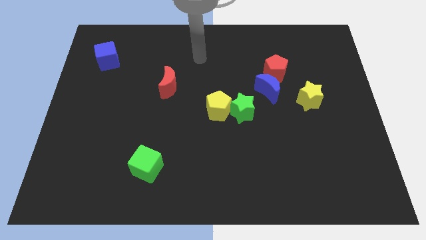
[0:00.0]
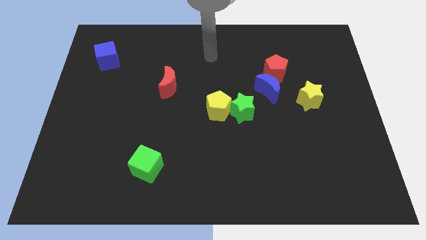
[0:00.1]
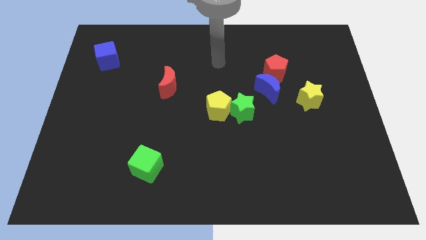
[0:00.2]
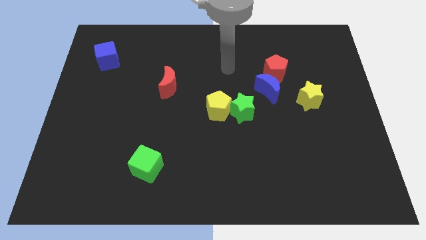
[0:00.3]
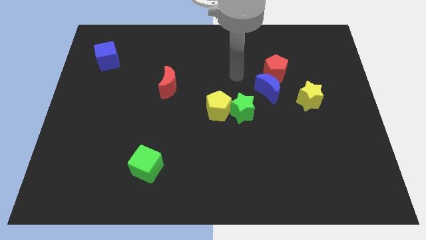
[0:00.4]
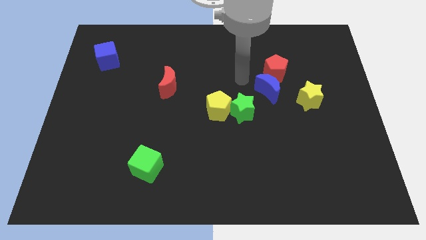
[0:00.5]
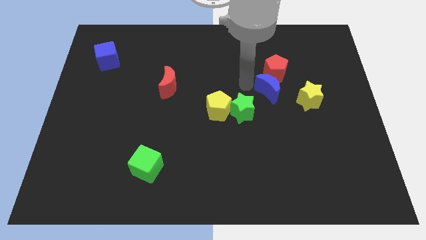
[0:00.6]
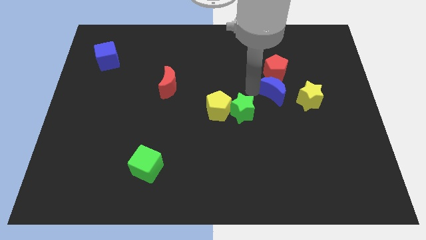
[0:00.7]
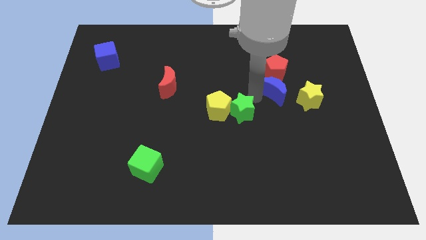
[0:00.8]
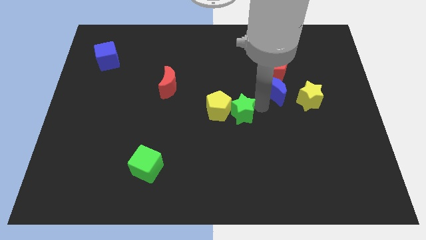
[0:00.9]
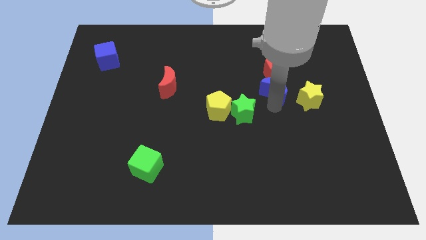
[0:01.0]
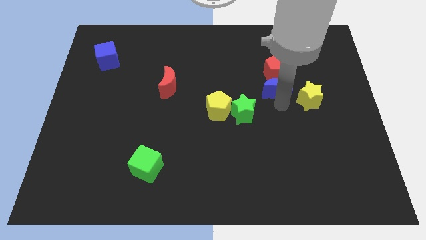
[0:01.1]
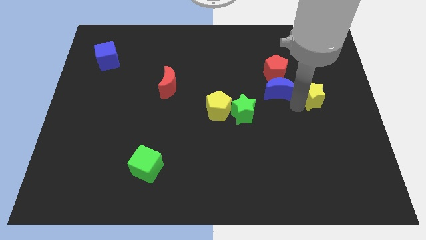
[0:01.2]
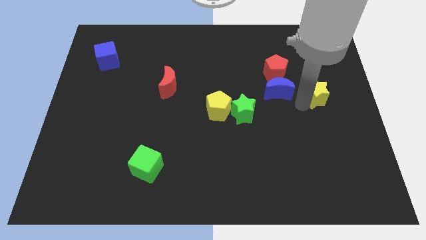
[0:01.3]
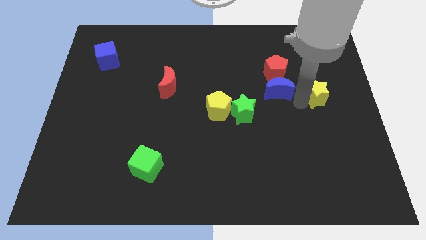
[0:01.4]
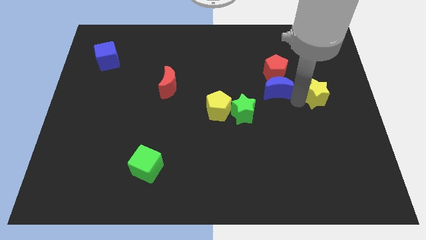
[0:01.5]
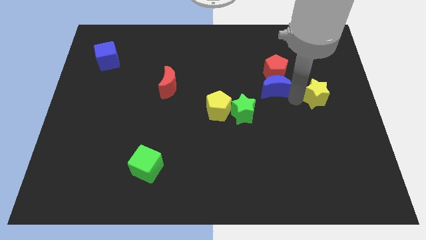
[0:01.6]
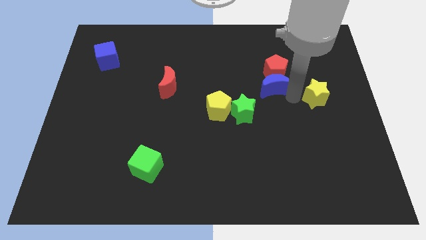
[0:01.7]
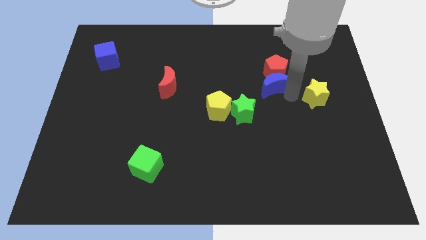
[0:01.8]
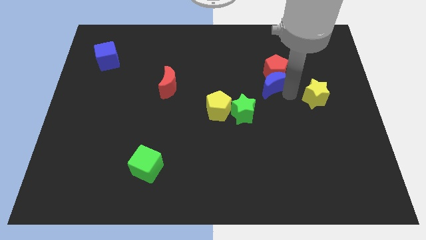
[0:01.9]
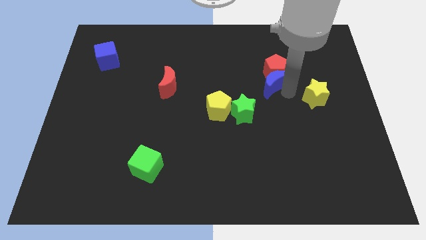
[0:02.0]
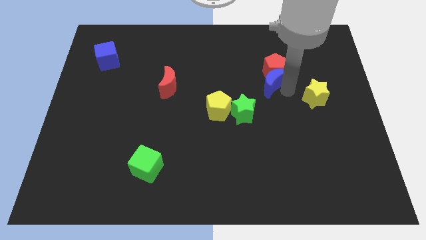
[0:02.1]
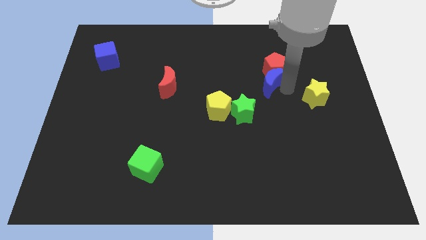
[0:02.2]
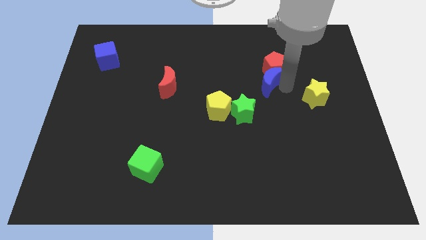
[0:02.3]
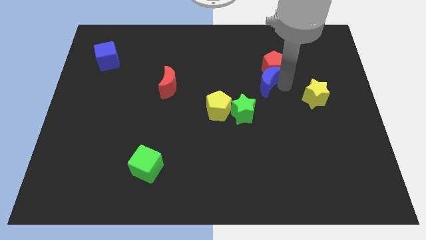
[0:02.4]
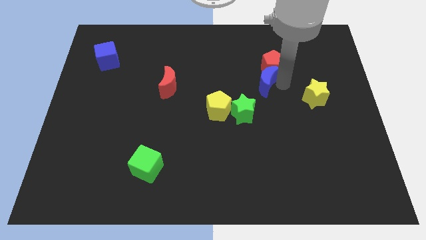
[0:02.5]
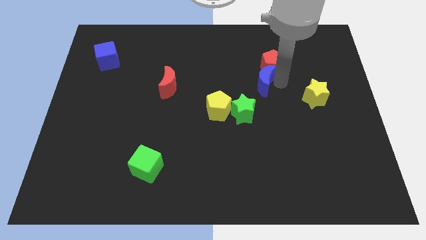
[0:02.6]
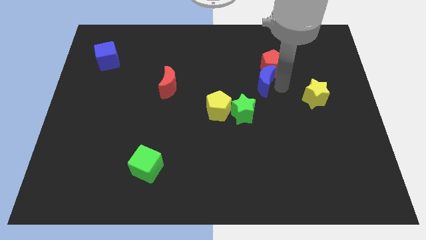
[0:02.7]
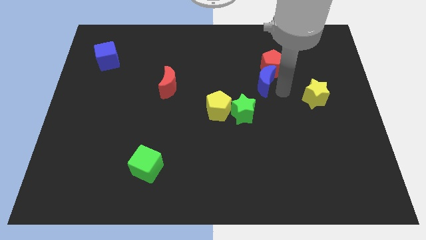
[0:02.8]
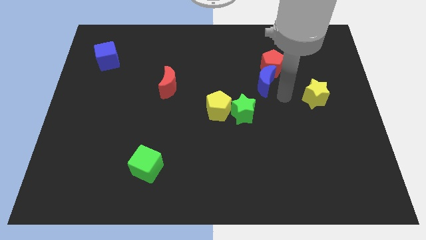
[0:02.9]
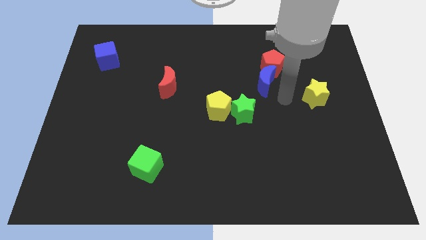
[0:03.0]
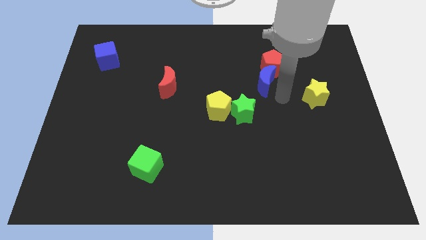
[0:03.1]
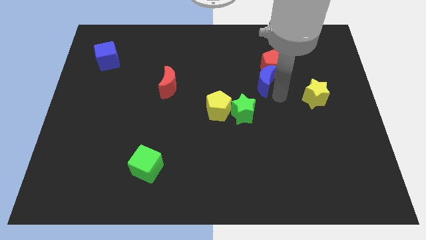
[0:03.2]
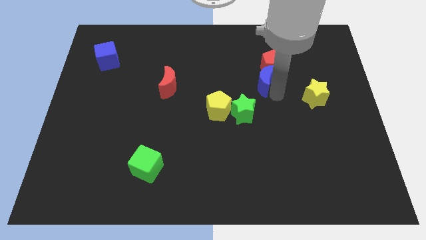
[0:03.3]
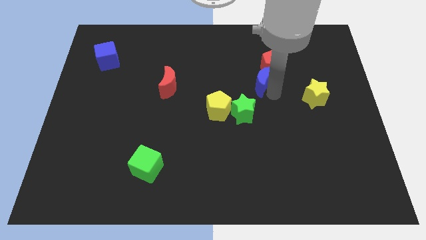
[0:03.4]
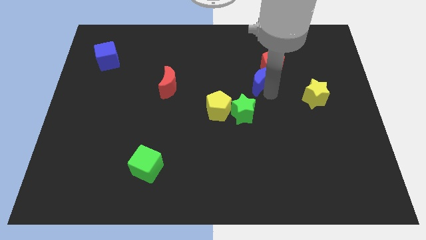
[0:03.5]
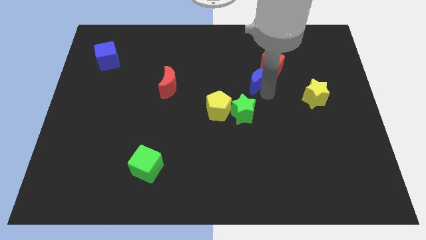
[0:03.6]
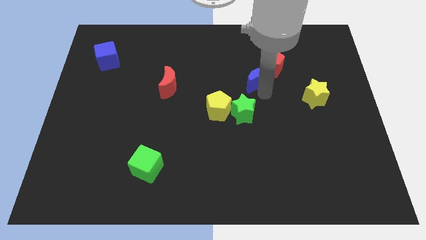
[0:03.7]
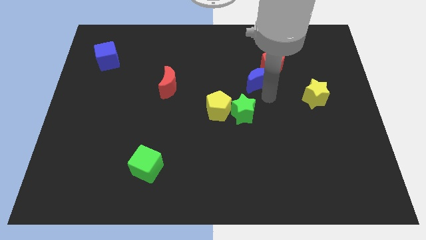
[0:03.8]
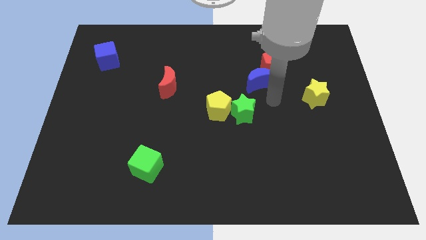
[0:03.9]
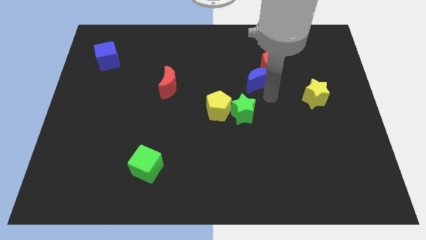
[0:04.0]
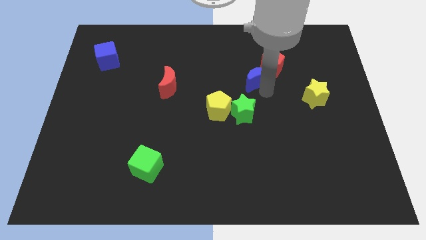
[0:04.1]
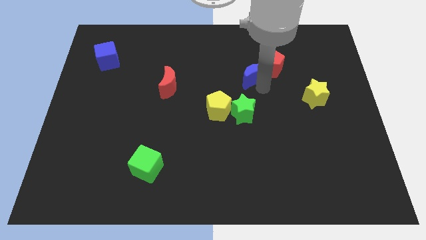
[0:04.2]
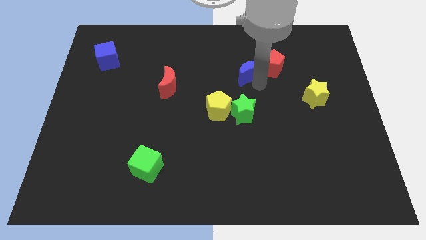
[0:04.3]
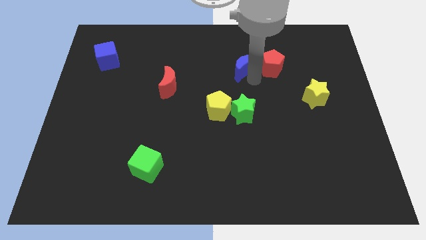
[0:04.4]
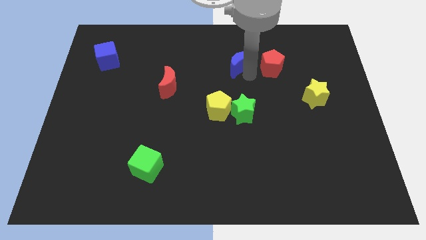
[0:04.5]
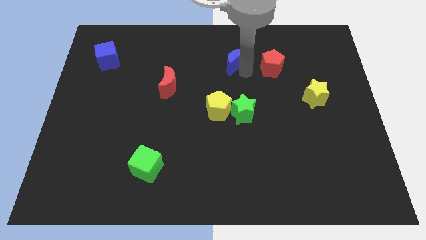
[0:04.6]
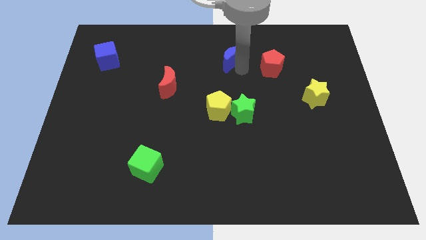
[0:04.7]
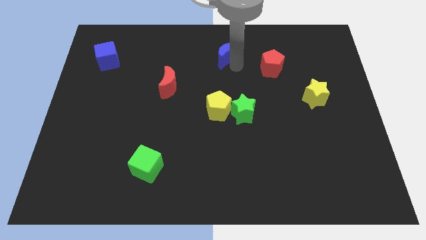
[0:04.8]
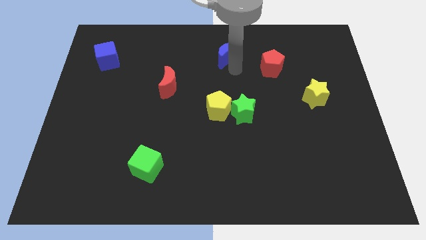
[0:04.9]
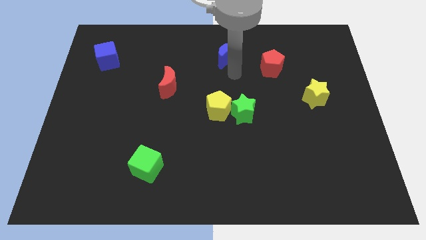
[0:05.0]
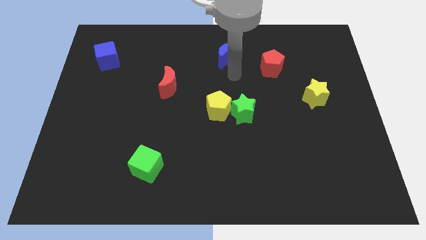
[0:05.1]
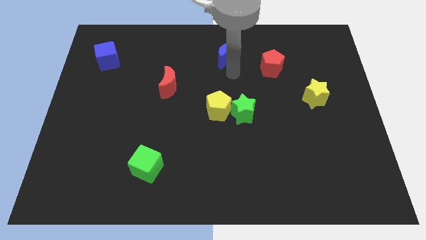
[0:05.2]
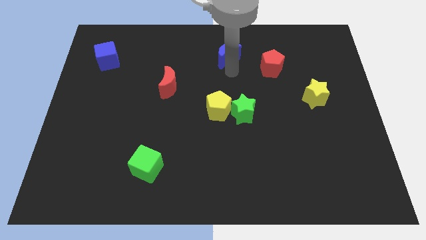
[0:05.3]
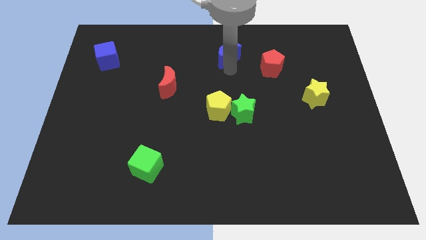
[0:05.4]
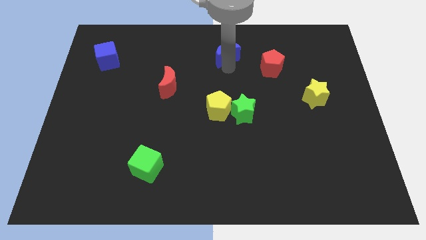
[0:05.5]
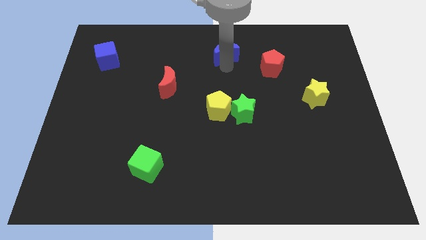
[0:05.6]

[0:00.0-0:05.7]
push the blue moon to the top side

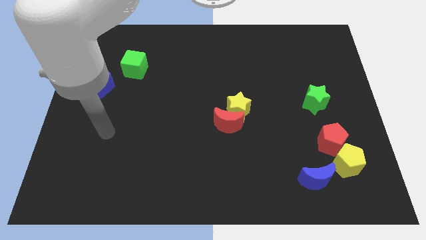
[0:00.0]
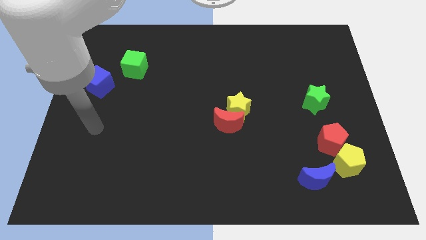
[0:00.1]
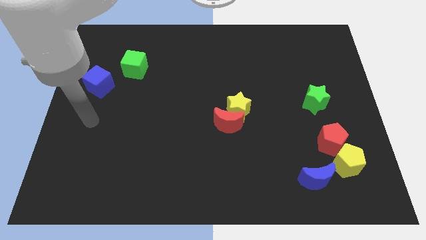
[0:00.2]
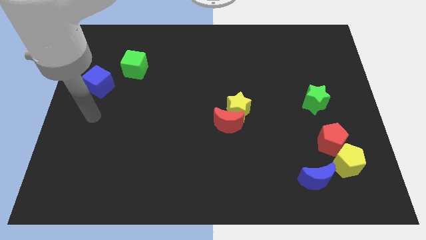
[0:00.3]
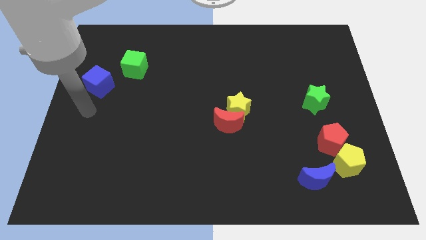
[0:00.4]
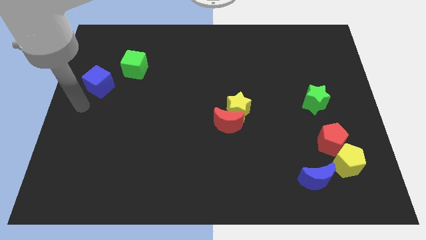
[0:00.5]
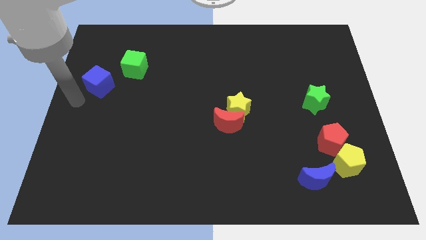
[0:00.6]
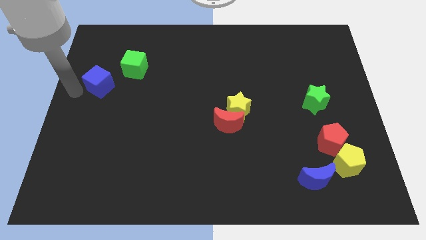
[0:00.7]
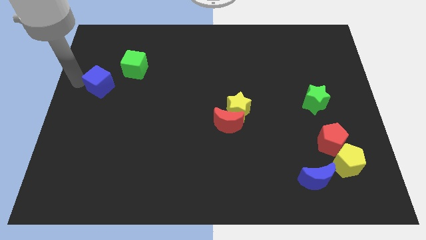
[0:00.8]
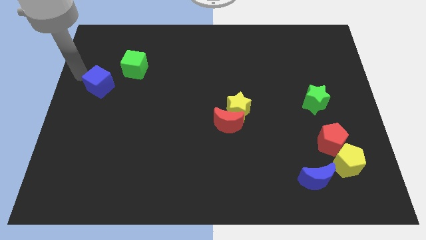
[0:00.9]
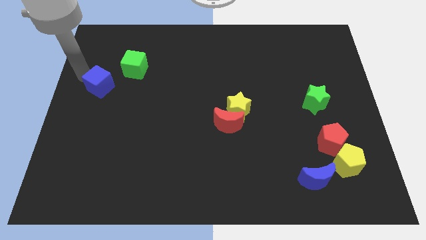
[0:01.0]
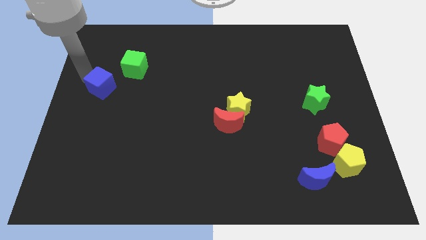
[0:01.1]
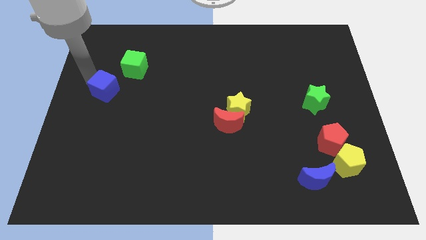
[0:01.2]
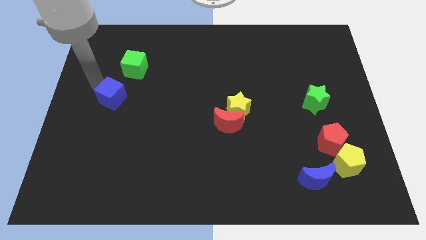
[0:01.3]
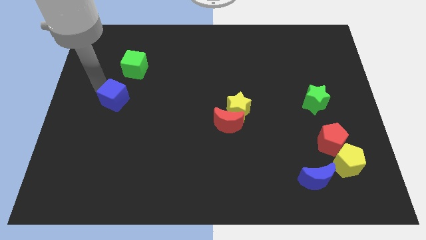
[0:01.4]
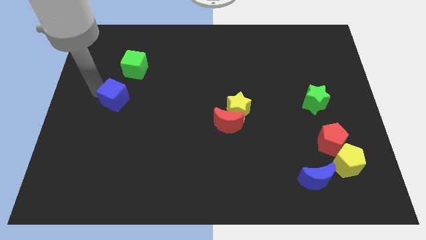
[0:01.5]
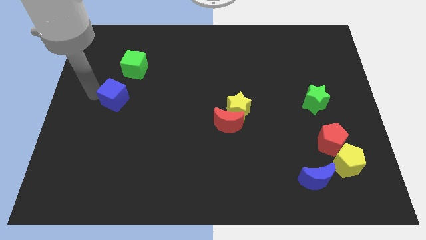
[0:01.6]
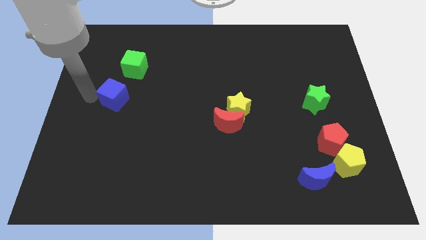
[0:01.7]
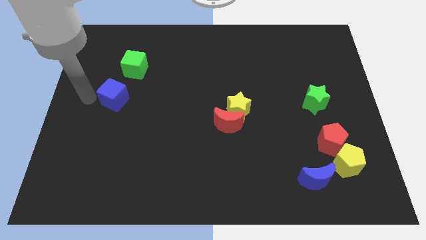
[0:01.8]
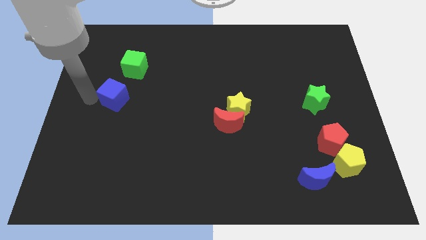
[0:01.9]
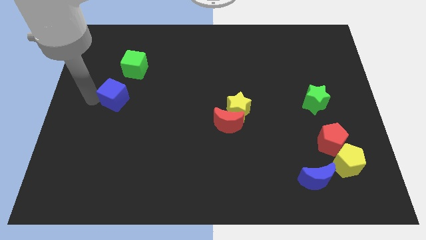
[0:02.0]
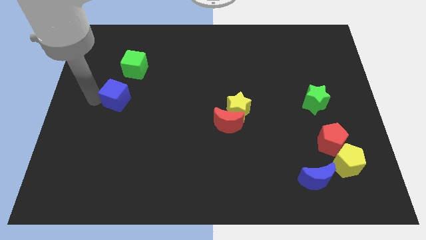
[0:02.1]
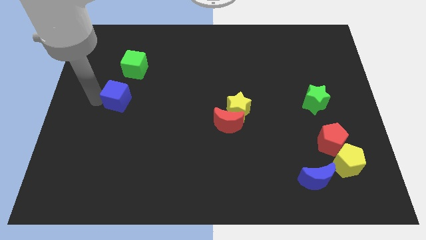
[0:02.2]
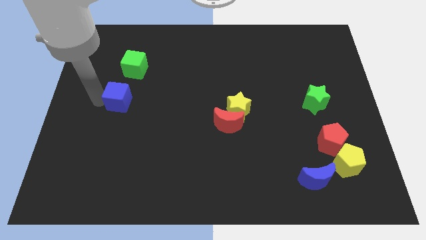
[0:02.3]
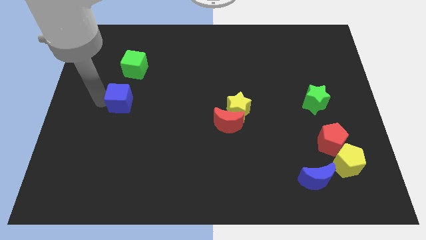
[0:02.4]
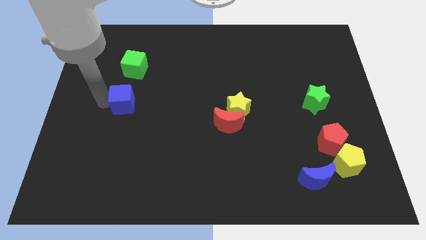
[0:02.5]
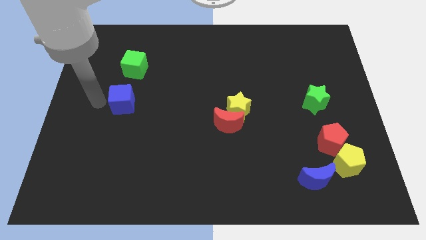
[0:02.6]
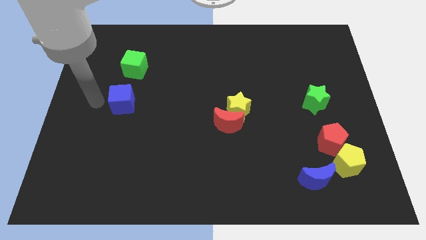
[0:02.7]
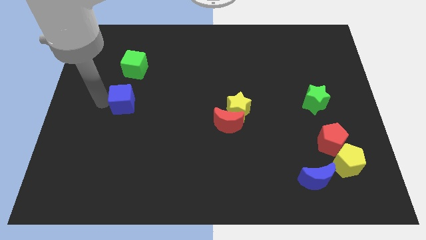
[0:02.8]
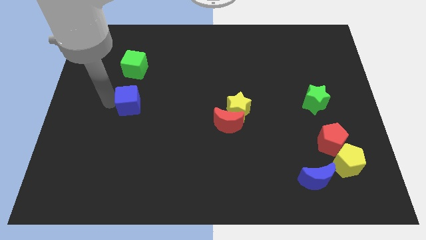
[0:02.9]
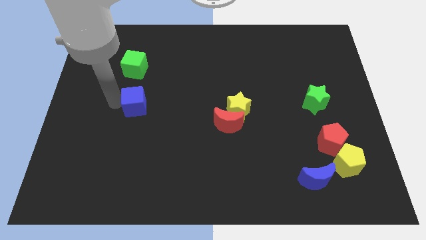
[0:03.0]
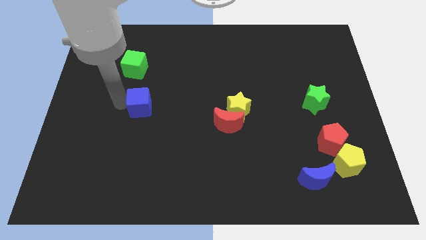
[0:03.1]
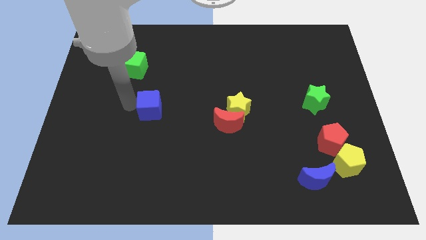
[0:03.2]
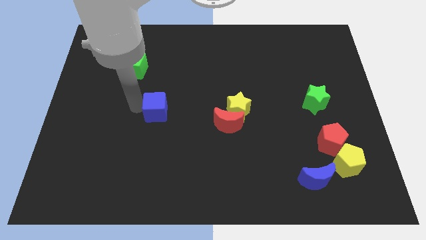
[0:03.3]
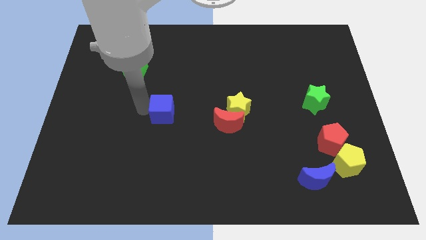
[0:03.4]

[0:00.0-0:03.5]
slide the blue cube to the middle
